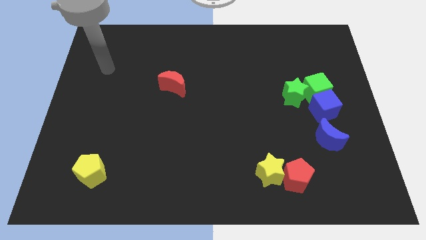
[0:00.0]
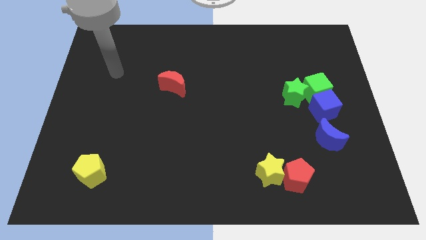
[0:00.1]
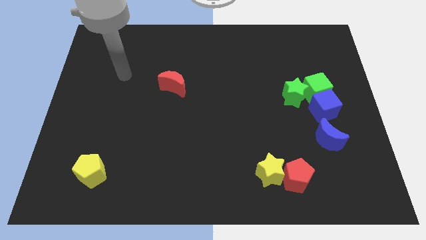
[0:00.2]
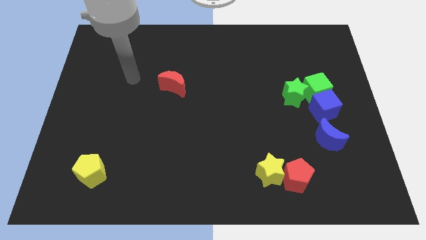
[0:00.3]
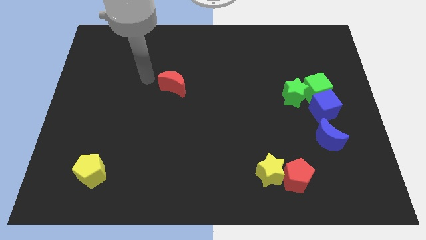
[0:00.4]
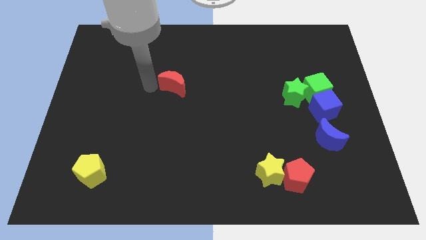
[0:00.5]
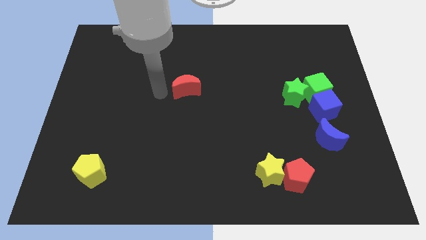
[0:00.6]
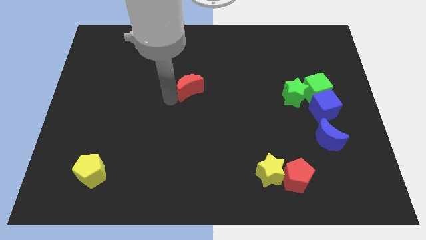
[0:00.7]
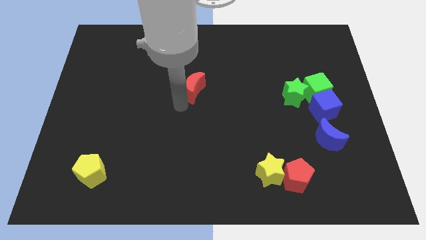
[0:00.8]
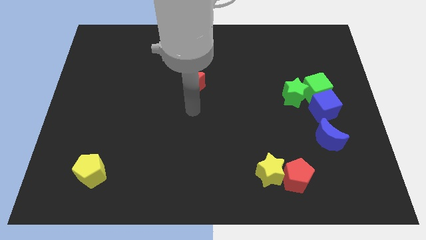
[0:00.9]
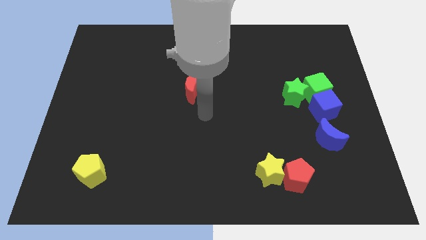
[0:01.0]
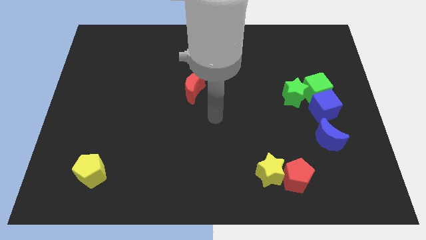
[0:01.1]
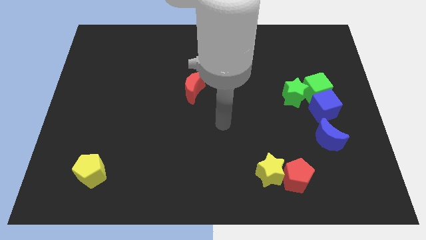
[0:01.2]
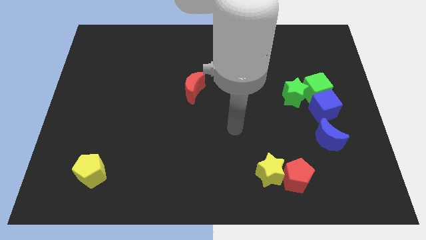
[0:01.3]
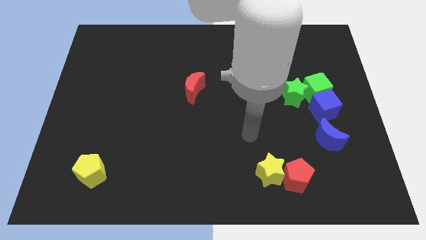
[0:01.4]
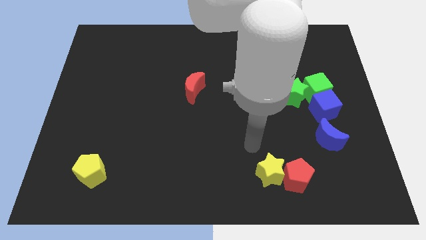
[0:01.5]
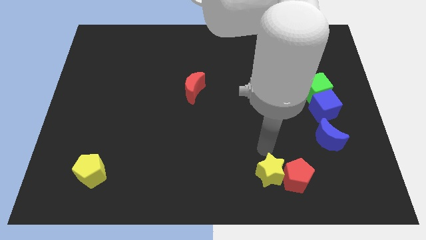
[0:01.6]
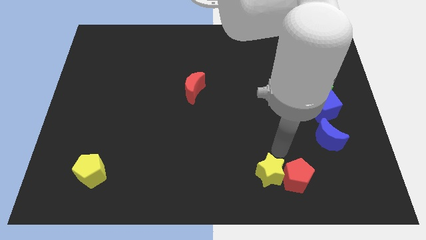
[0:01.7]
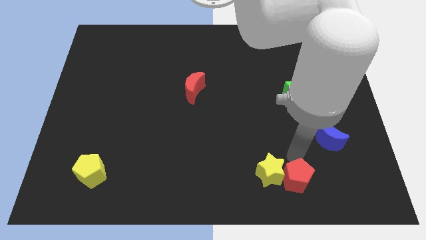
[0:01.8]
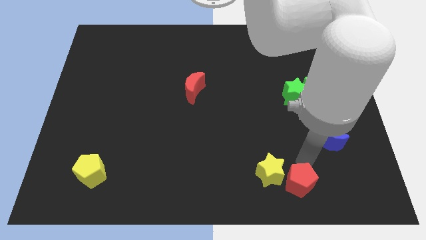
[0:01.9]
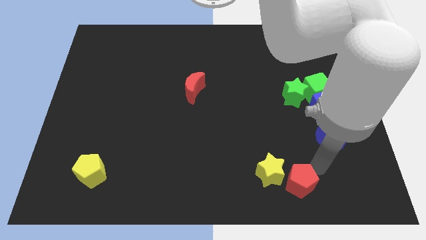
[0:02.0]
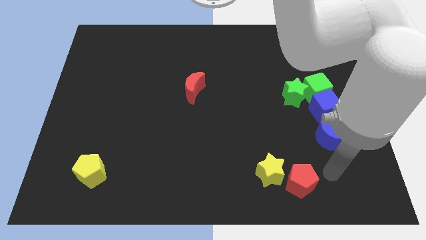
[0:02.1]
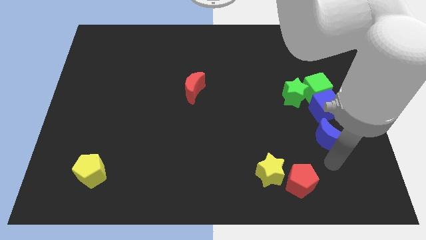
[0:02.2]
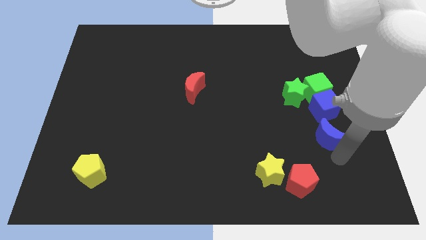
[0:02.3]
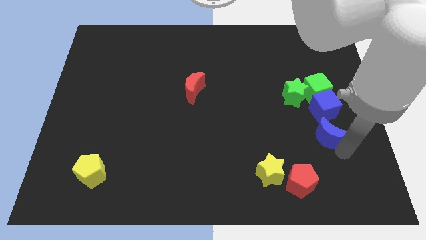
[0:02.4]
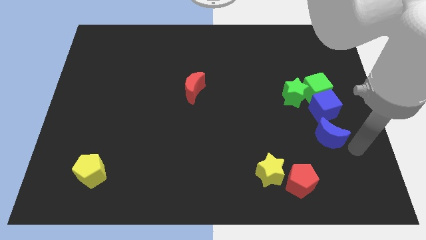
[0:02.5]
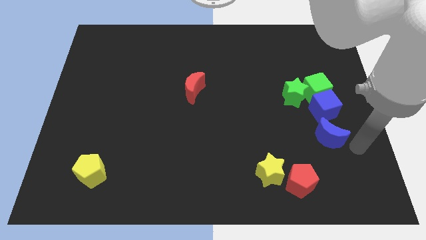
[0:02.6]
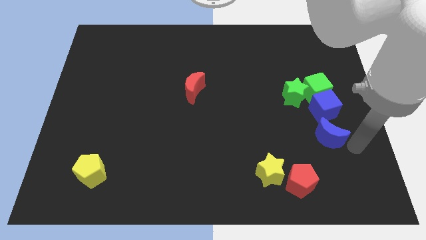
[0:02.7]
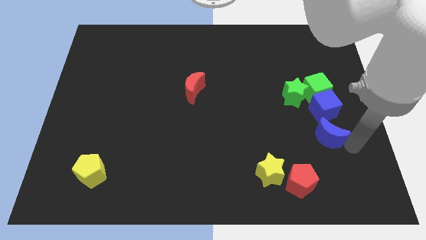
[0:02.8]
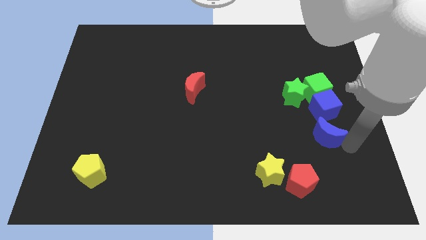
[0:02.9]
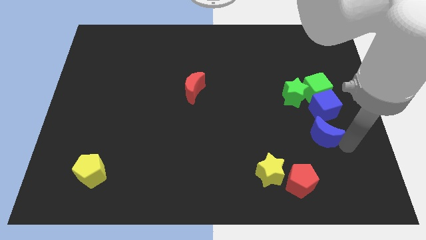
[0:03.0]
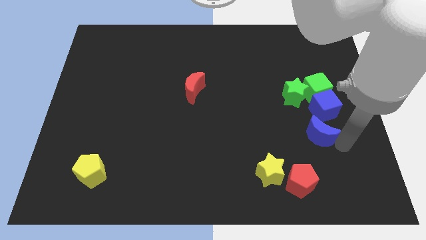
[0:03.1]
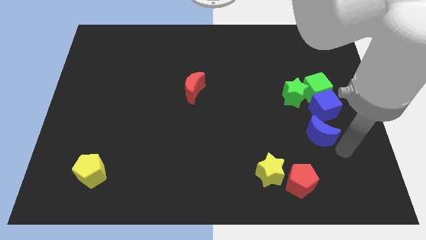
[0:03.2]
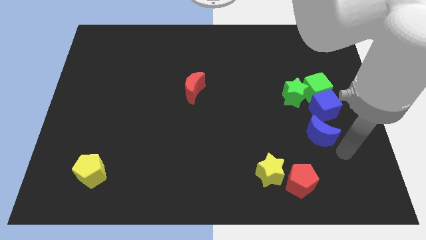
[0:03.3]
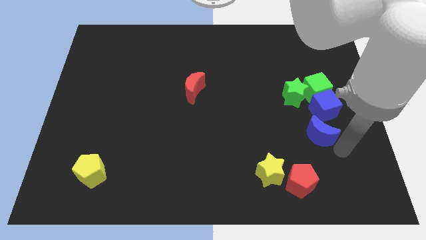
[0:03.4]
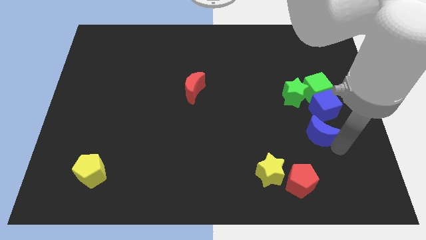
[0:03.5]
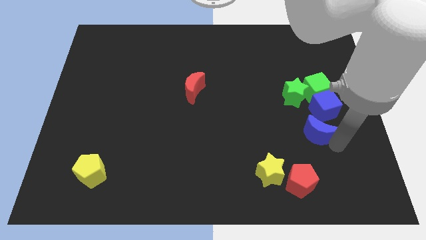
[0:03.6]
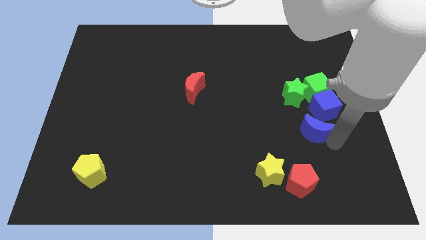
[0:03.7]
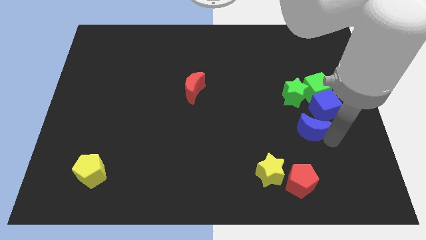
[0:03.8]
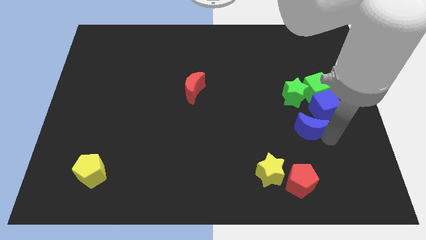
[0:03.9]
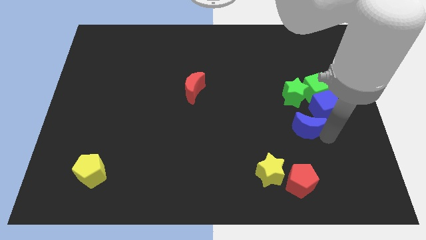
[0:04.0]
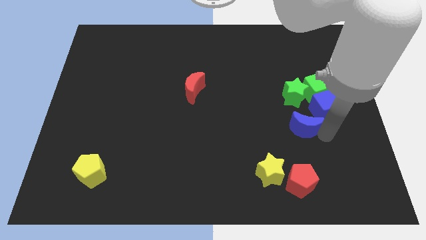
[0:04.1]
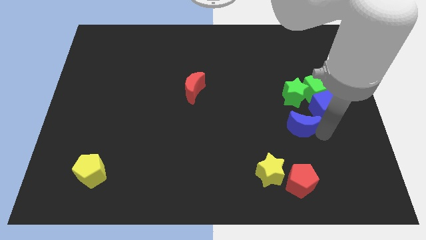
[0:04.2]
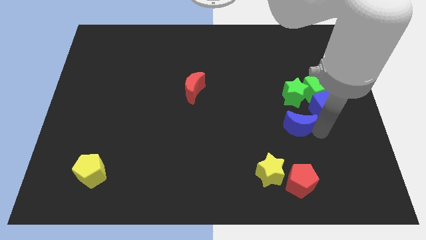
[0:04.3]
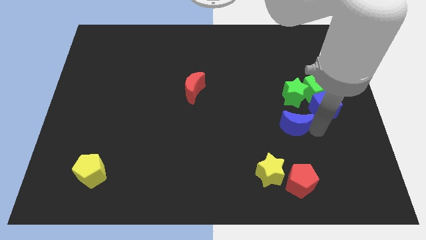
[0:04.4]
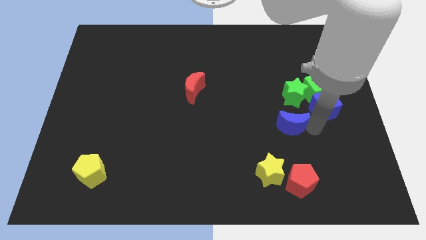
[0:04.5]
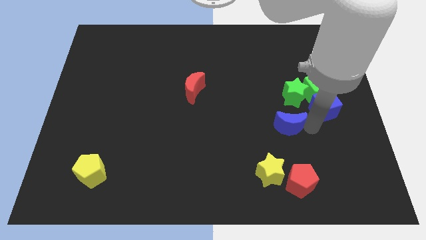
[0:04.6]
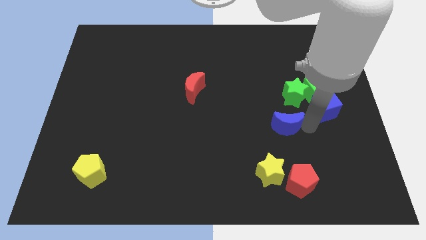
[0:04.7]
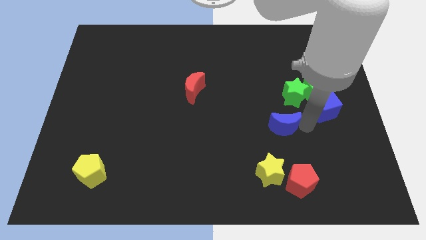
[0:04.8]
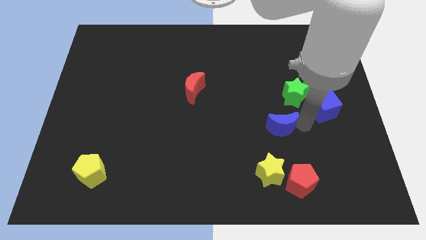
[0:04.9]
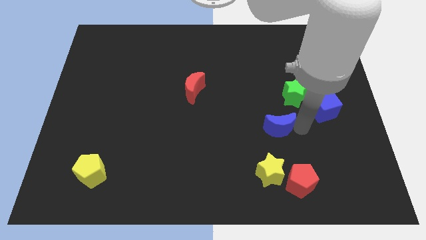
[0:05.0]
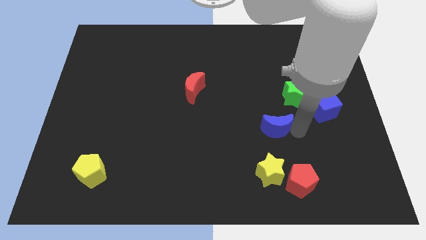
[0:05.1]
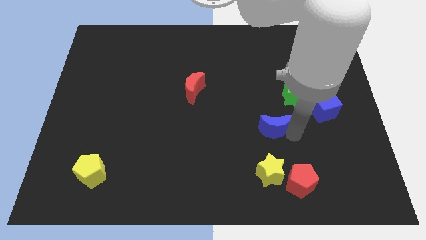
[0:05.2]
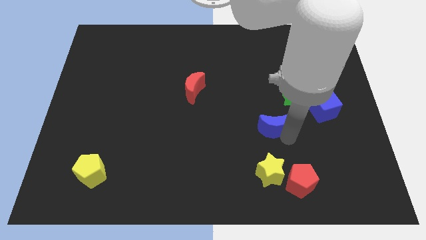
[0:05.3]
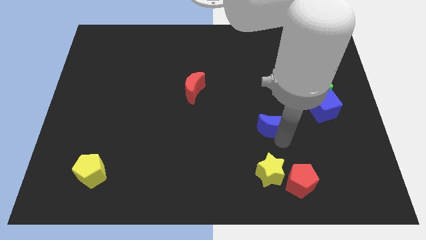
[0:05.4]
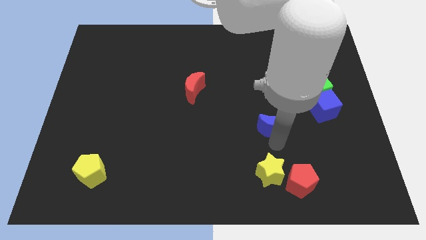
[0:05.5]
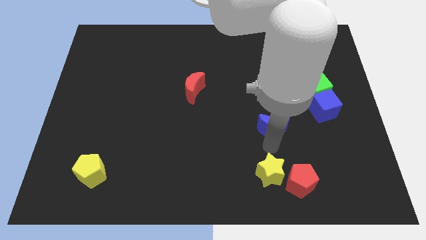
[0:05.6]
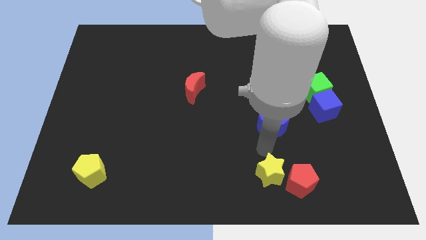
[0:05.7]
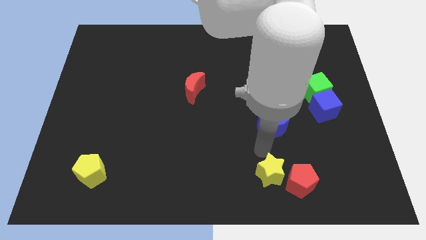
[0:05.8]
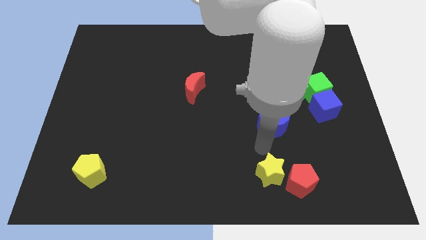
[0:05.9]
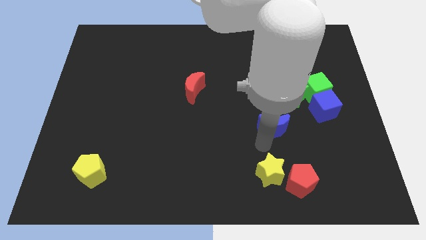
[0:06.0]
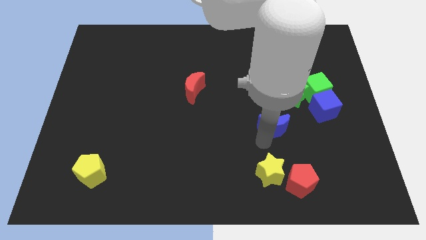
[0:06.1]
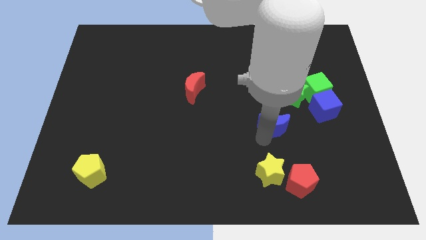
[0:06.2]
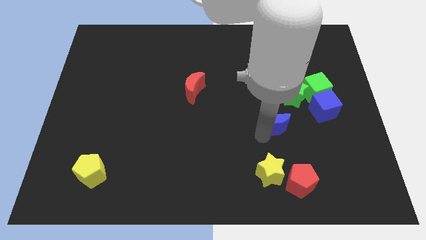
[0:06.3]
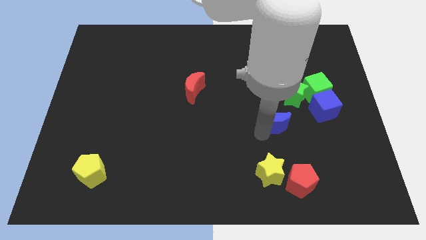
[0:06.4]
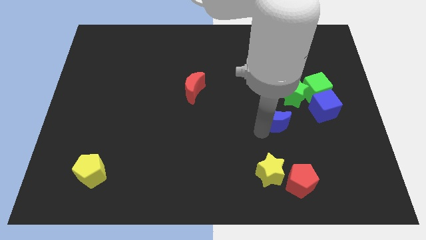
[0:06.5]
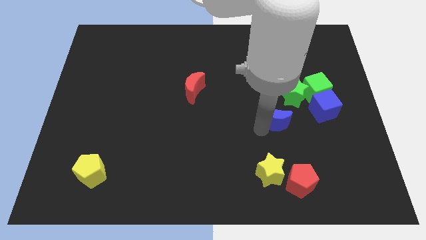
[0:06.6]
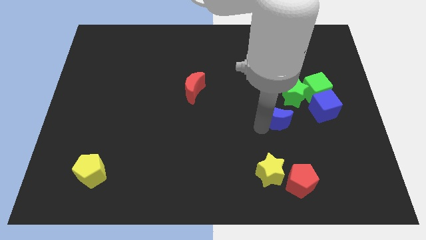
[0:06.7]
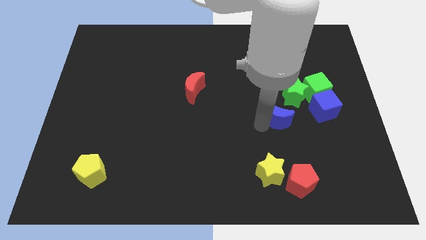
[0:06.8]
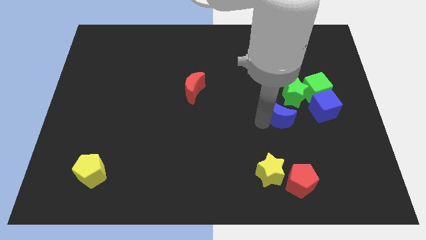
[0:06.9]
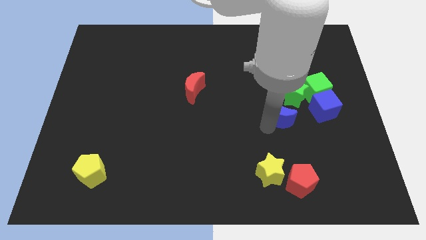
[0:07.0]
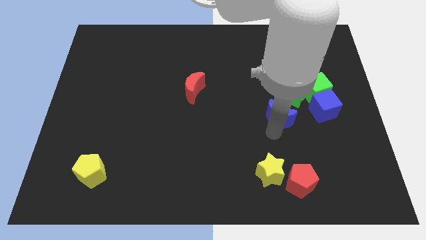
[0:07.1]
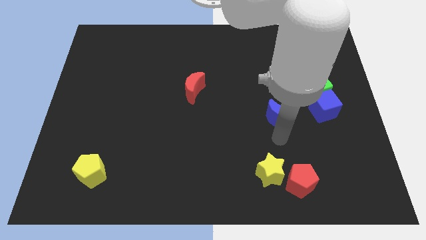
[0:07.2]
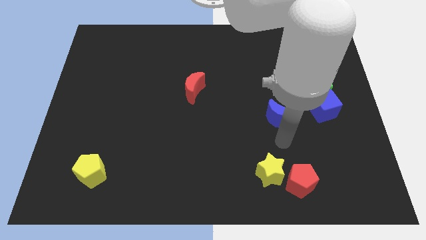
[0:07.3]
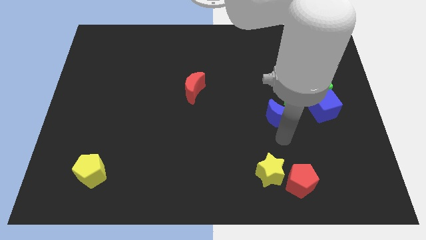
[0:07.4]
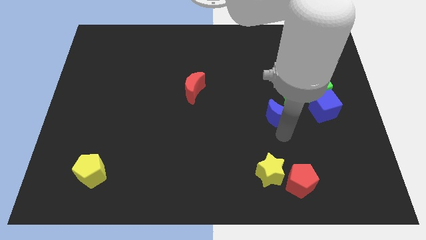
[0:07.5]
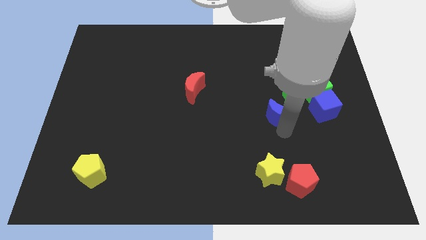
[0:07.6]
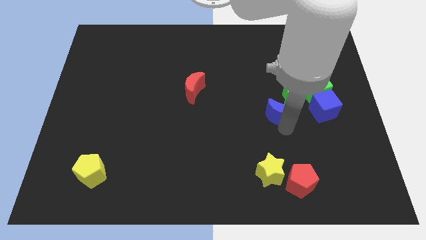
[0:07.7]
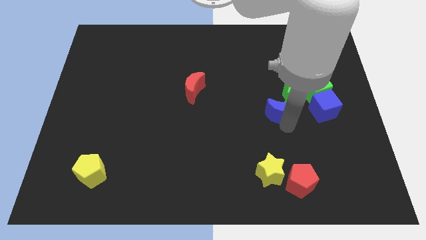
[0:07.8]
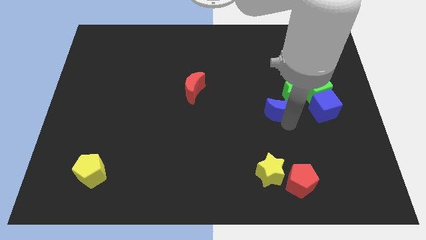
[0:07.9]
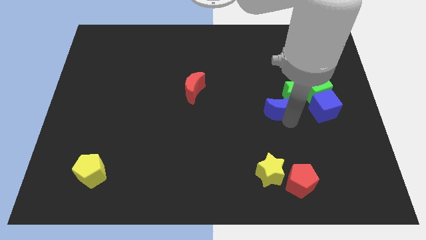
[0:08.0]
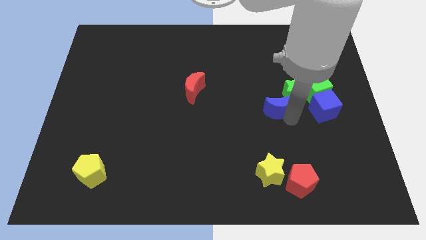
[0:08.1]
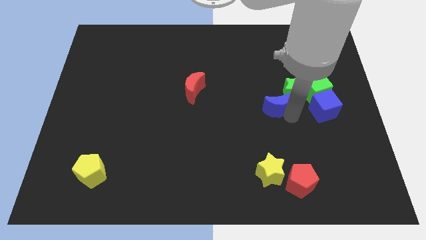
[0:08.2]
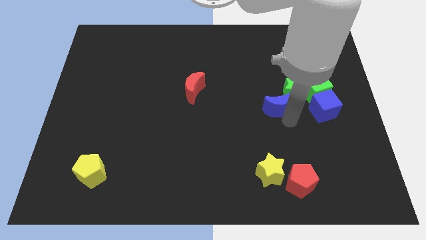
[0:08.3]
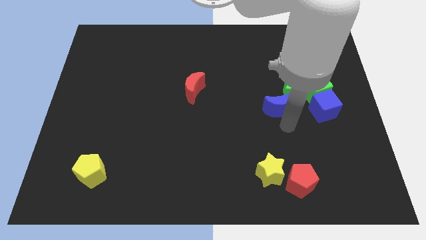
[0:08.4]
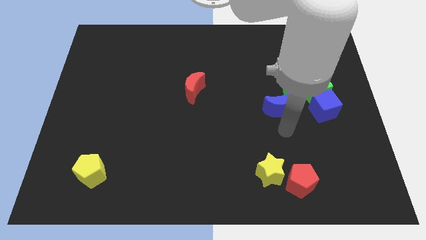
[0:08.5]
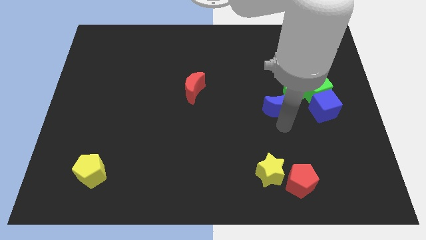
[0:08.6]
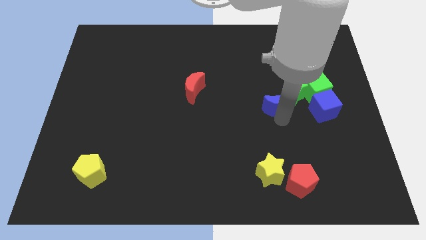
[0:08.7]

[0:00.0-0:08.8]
slide the blue moon to the left of the green cube
